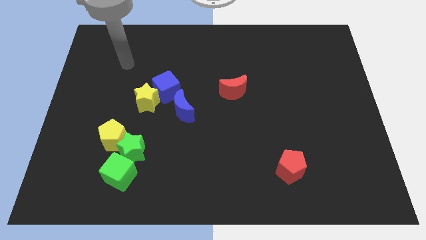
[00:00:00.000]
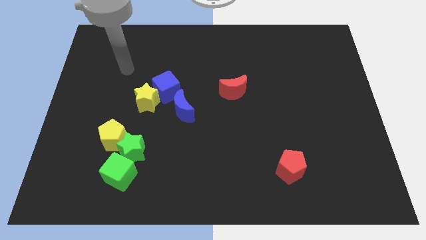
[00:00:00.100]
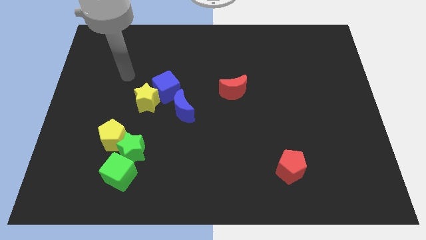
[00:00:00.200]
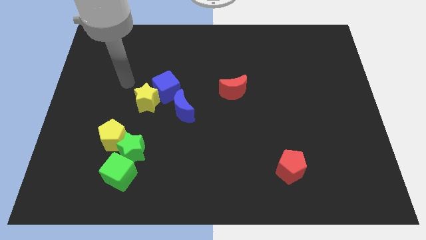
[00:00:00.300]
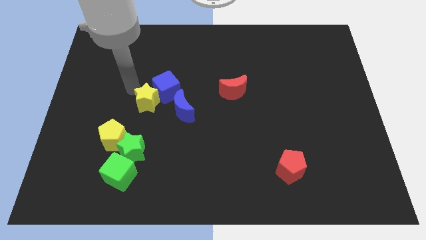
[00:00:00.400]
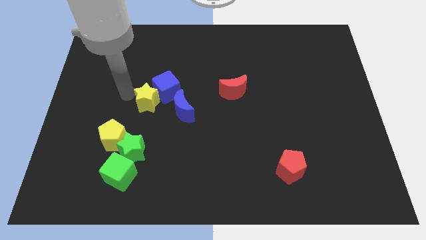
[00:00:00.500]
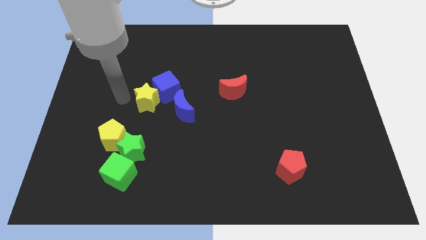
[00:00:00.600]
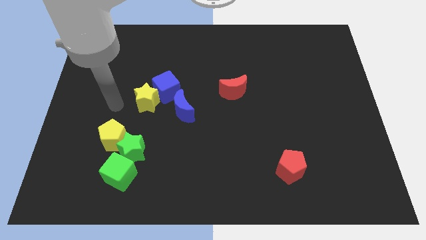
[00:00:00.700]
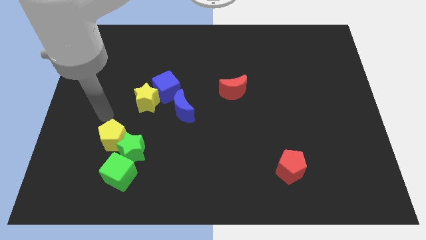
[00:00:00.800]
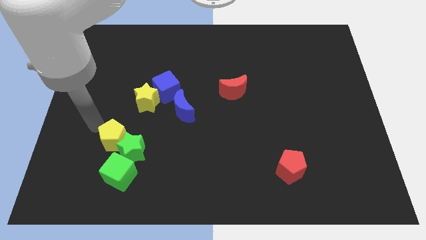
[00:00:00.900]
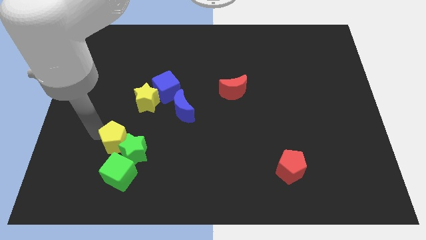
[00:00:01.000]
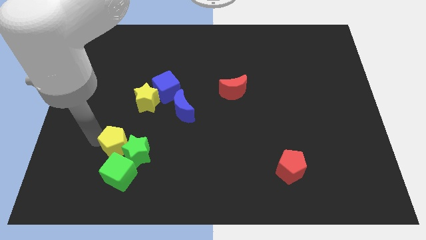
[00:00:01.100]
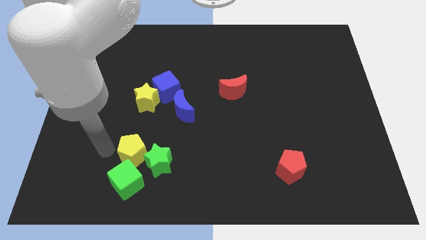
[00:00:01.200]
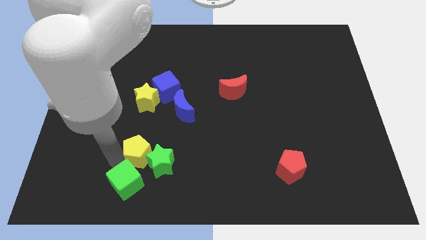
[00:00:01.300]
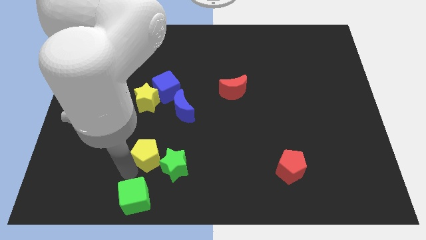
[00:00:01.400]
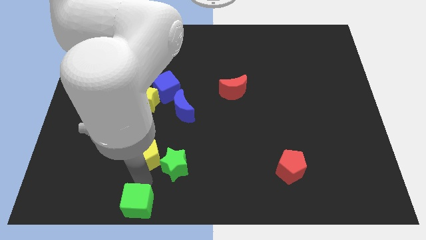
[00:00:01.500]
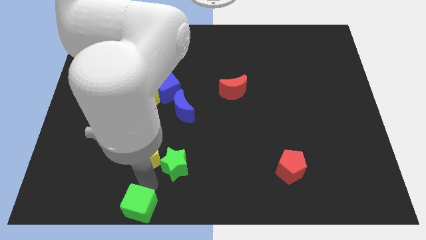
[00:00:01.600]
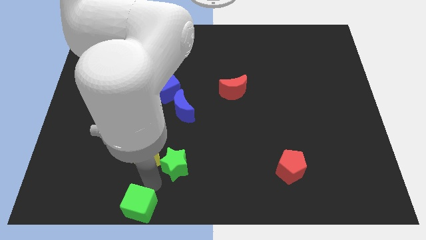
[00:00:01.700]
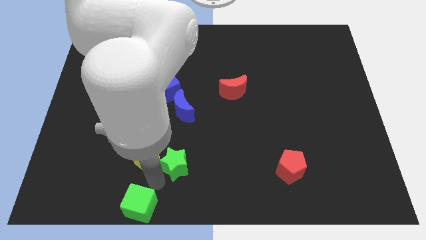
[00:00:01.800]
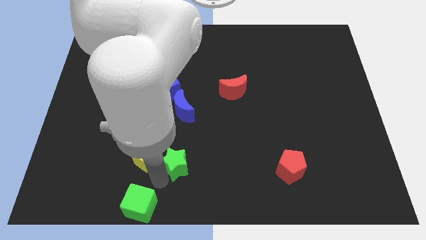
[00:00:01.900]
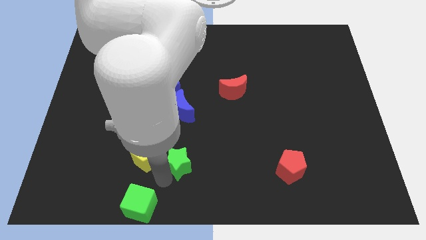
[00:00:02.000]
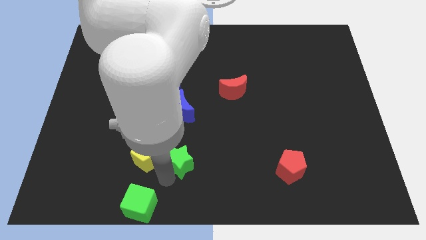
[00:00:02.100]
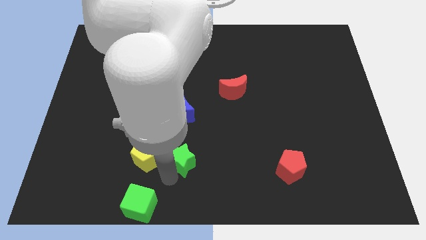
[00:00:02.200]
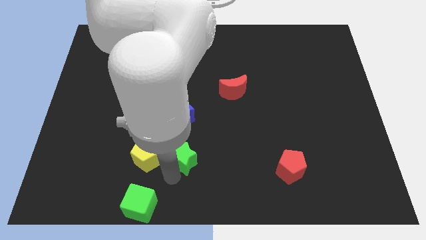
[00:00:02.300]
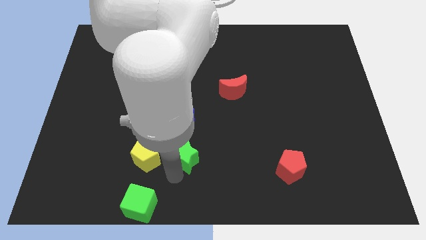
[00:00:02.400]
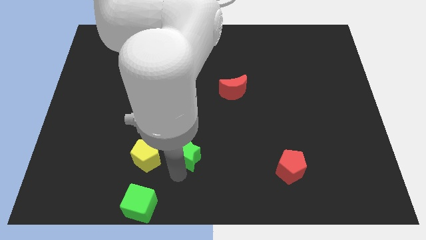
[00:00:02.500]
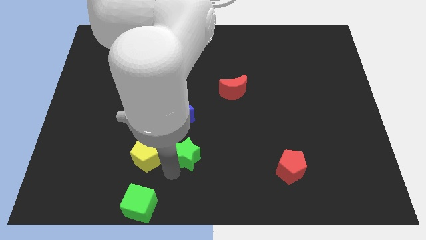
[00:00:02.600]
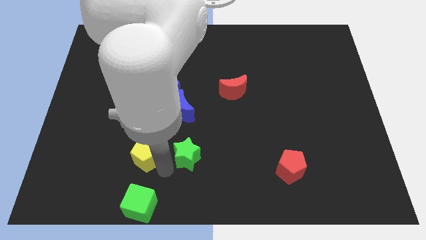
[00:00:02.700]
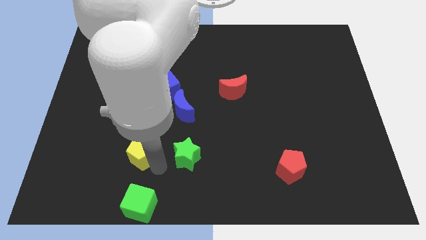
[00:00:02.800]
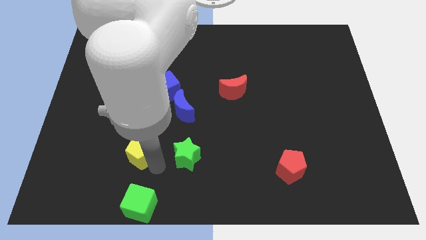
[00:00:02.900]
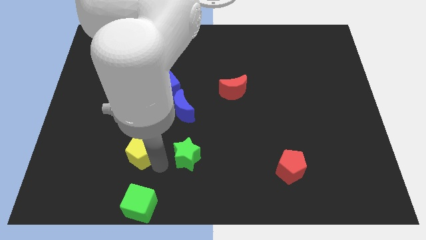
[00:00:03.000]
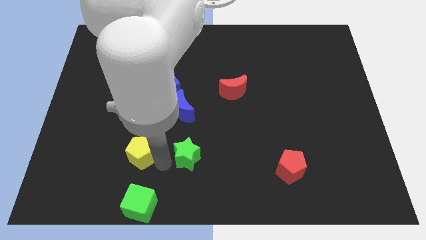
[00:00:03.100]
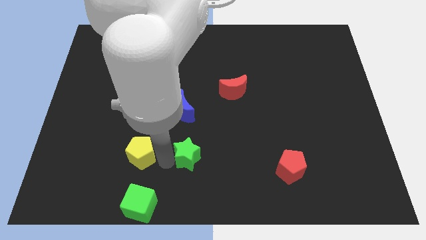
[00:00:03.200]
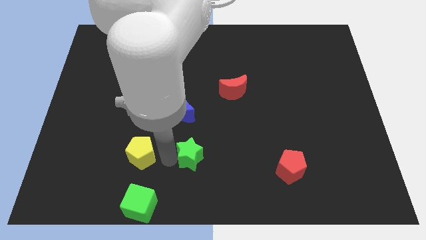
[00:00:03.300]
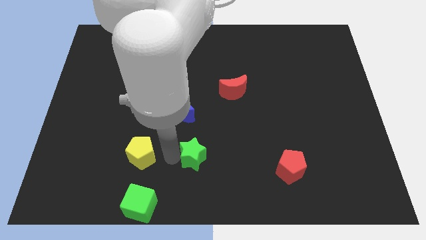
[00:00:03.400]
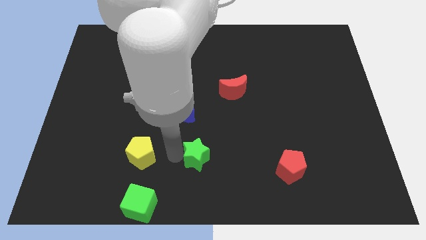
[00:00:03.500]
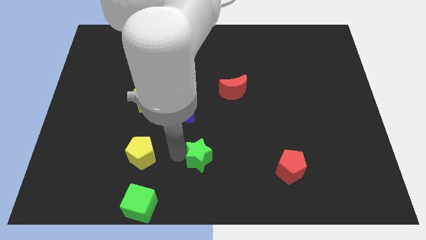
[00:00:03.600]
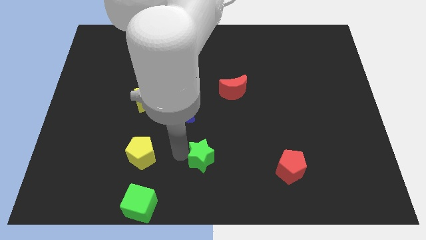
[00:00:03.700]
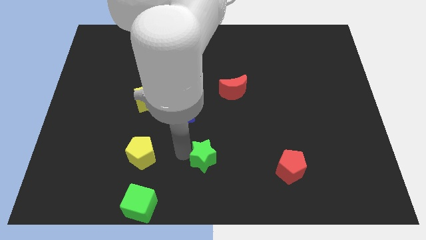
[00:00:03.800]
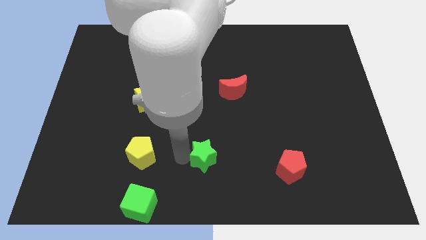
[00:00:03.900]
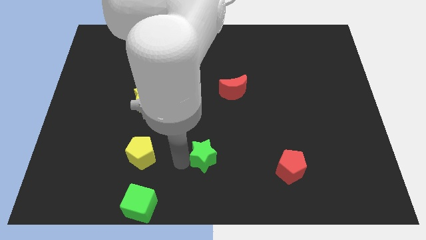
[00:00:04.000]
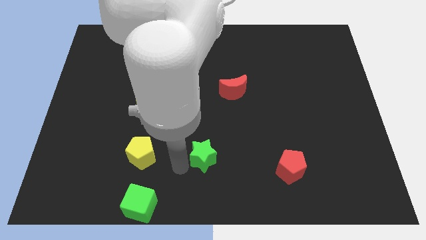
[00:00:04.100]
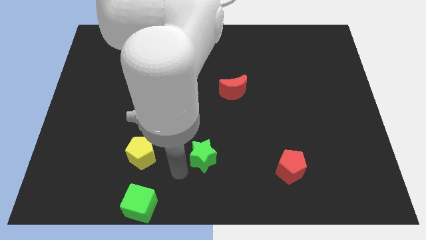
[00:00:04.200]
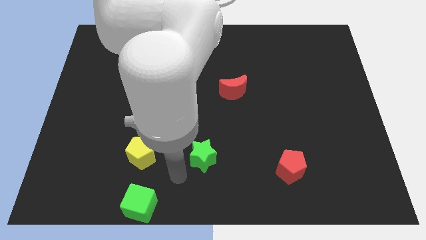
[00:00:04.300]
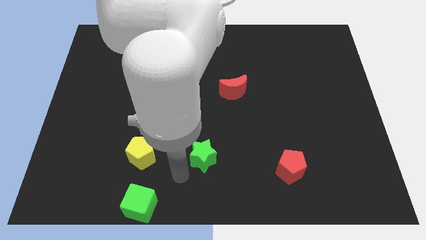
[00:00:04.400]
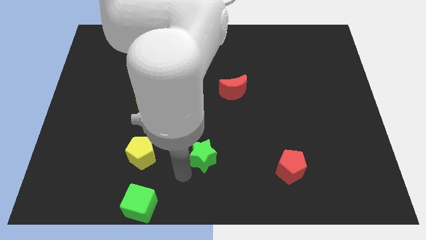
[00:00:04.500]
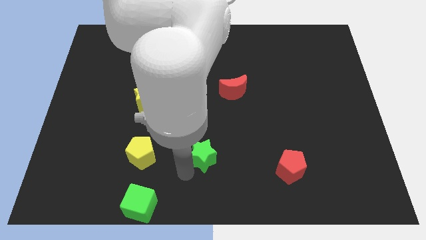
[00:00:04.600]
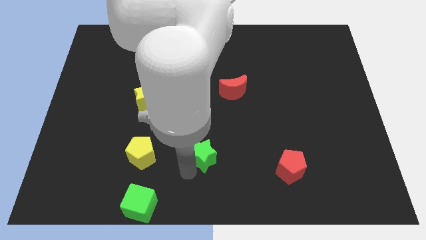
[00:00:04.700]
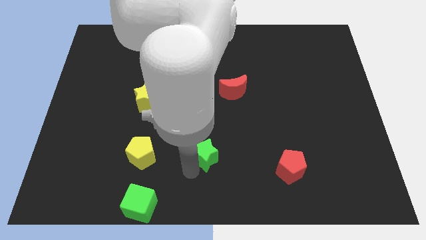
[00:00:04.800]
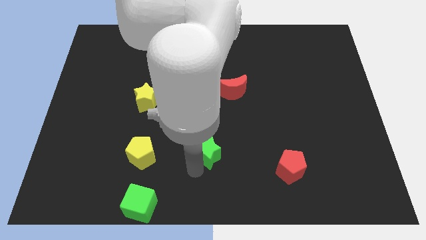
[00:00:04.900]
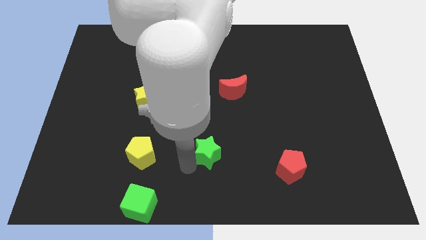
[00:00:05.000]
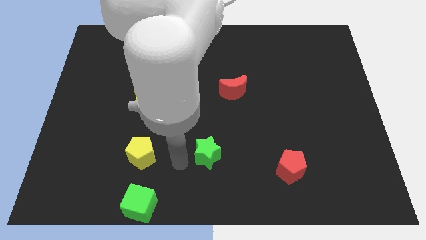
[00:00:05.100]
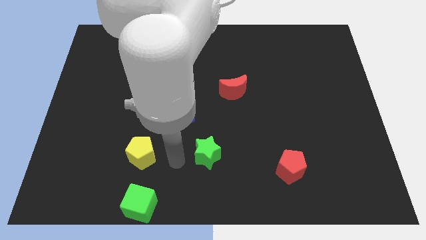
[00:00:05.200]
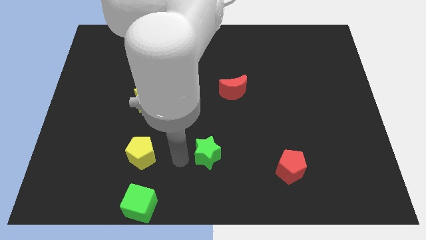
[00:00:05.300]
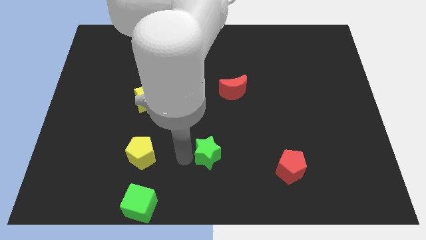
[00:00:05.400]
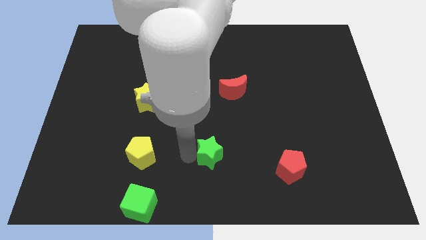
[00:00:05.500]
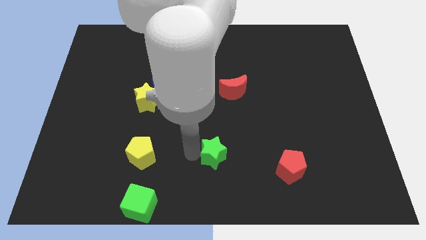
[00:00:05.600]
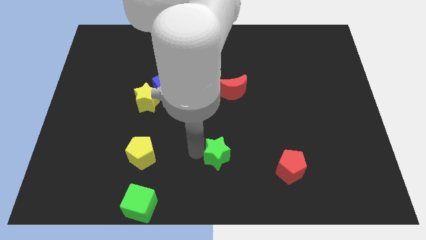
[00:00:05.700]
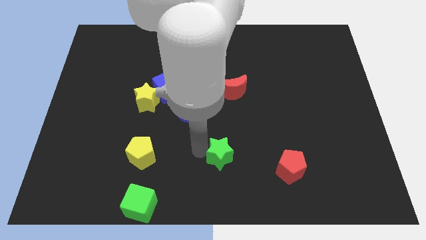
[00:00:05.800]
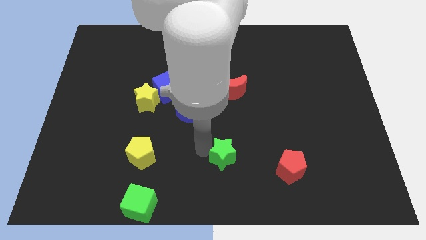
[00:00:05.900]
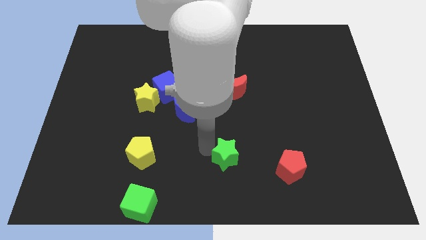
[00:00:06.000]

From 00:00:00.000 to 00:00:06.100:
move the green star right

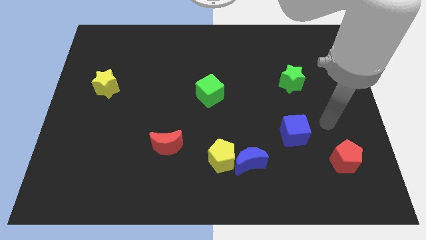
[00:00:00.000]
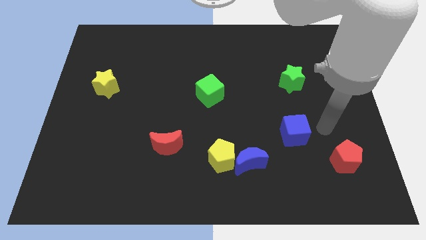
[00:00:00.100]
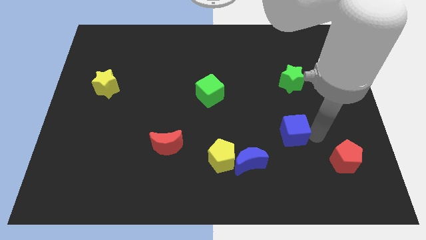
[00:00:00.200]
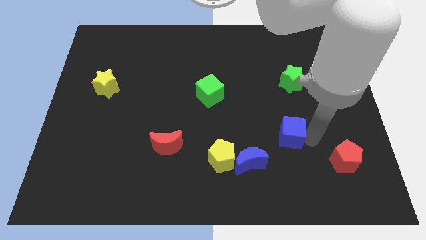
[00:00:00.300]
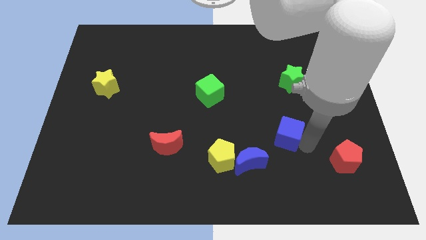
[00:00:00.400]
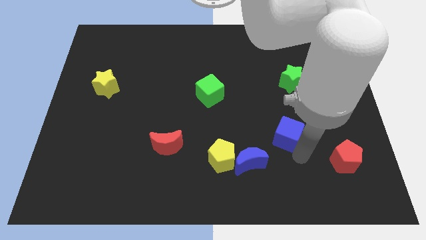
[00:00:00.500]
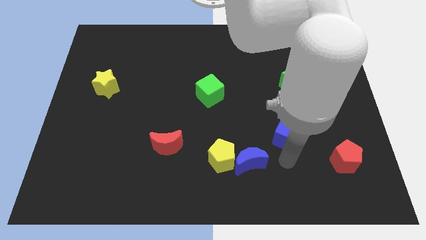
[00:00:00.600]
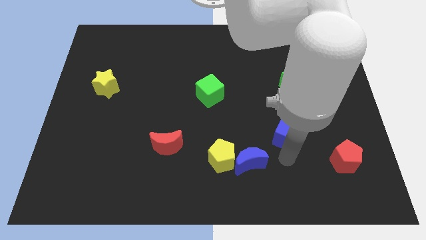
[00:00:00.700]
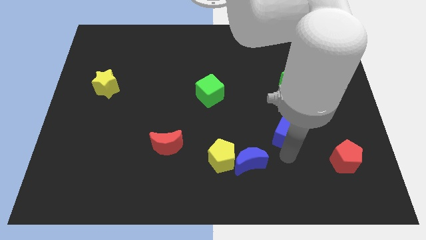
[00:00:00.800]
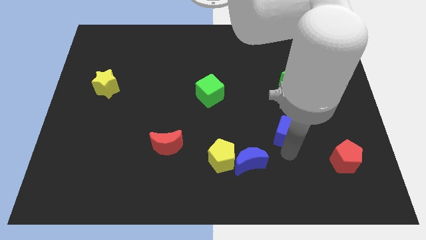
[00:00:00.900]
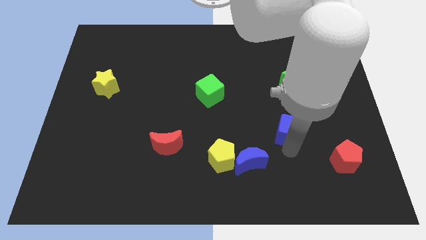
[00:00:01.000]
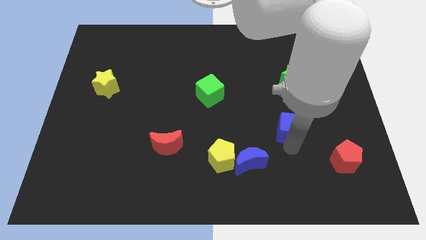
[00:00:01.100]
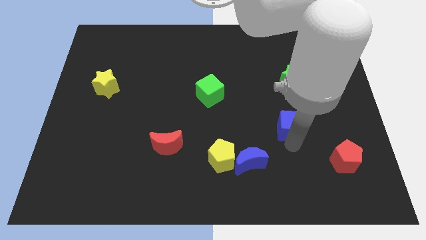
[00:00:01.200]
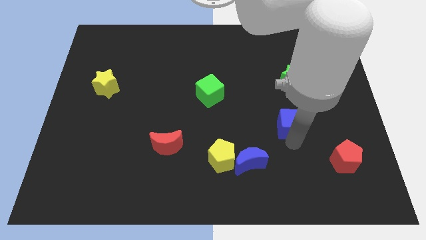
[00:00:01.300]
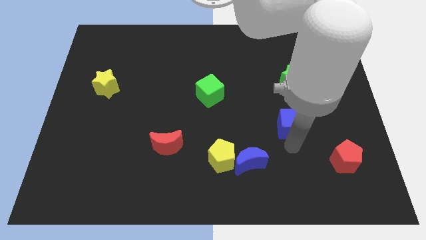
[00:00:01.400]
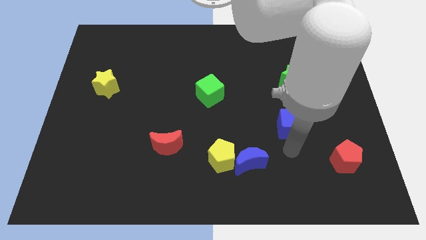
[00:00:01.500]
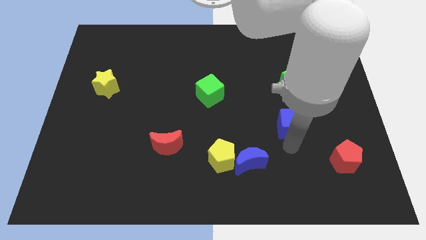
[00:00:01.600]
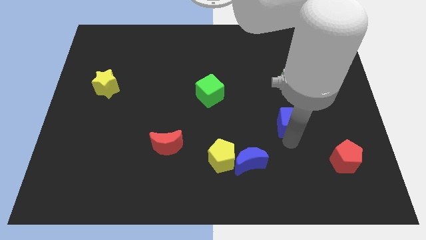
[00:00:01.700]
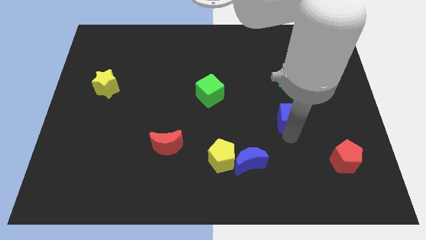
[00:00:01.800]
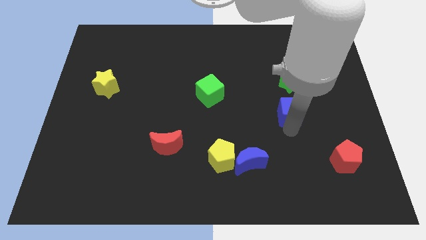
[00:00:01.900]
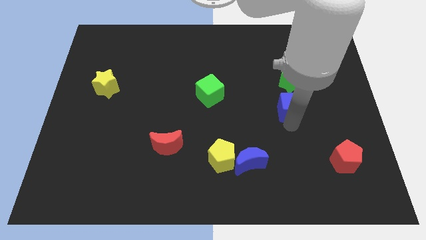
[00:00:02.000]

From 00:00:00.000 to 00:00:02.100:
slightly push the blue cube upwards
